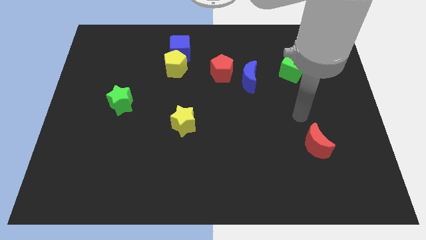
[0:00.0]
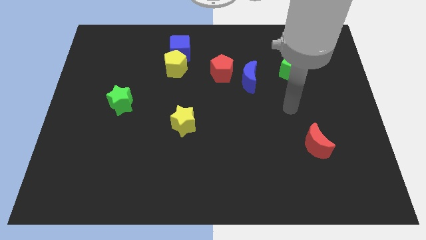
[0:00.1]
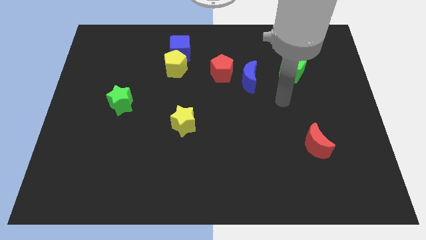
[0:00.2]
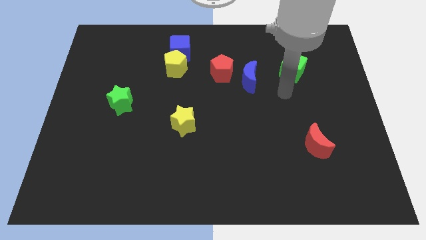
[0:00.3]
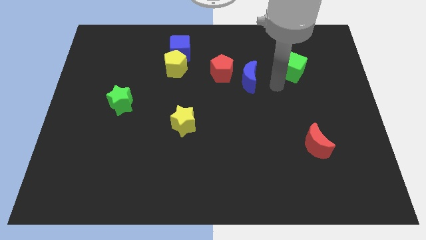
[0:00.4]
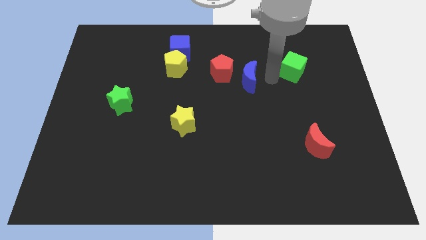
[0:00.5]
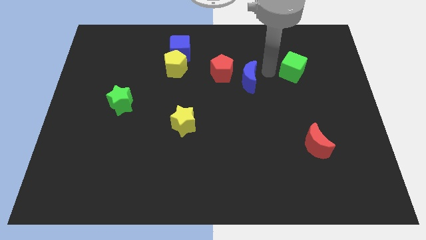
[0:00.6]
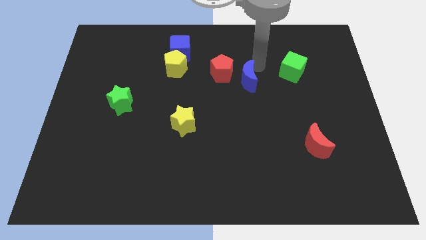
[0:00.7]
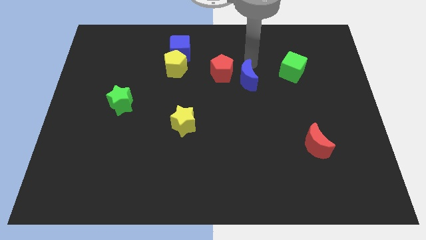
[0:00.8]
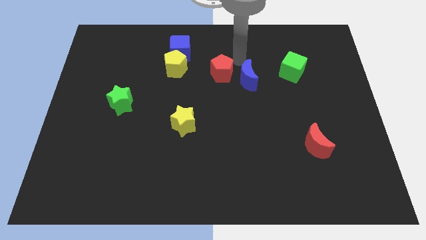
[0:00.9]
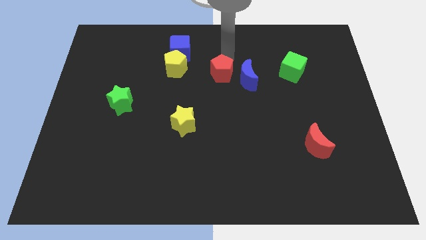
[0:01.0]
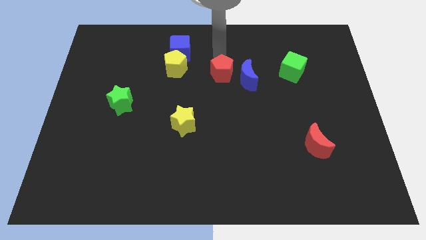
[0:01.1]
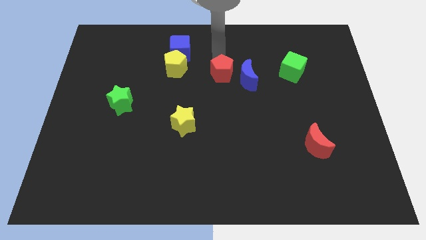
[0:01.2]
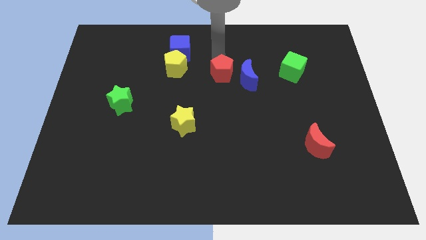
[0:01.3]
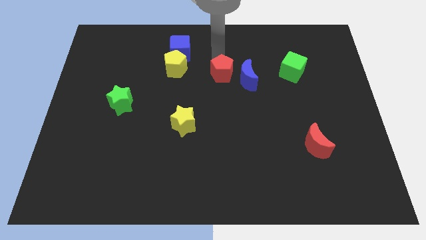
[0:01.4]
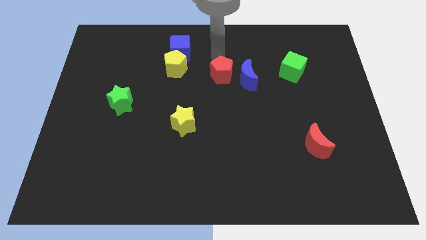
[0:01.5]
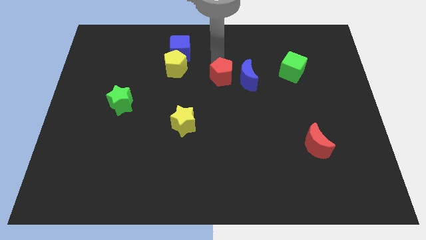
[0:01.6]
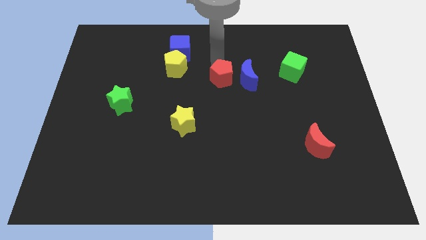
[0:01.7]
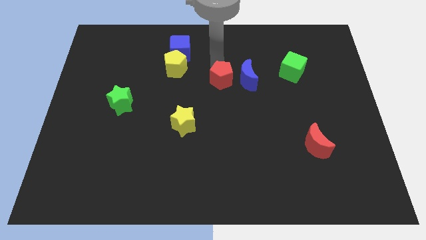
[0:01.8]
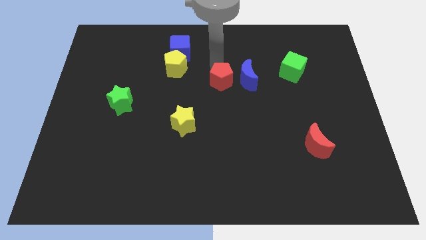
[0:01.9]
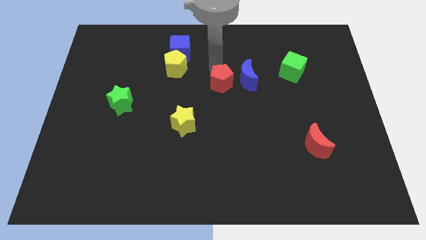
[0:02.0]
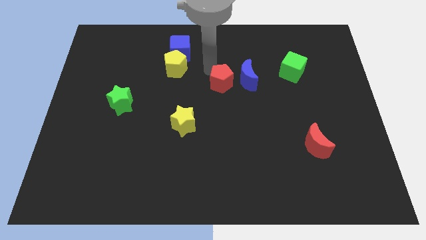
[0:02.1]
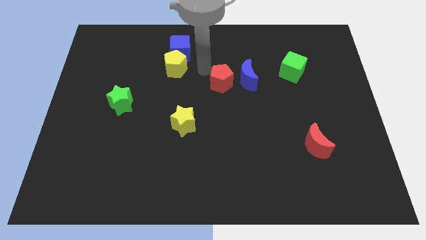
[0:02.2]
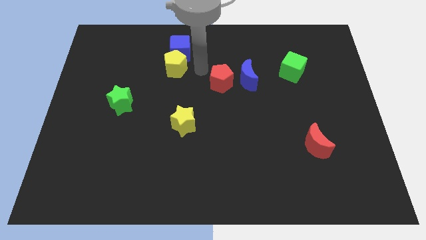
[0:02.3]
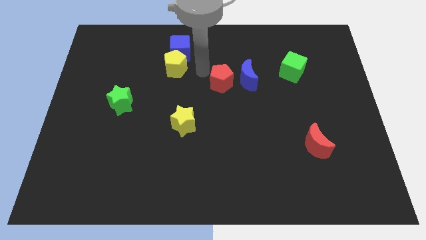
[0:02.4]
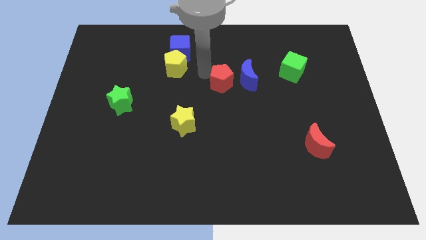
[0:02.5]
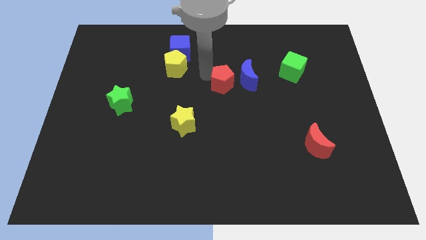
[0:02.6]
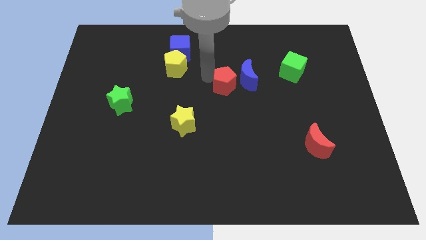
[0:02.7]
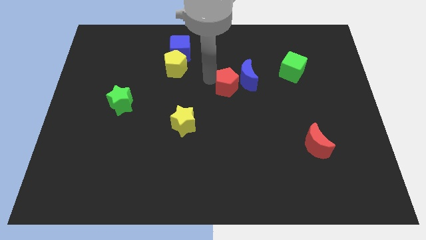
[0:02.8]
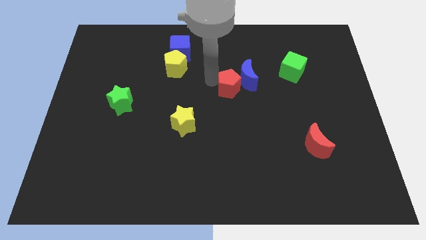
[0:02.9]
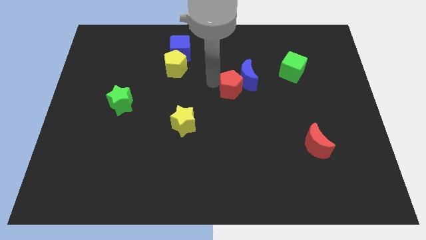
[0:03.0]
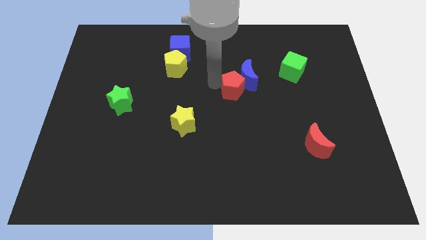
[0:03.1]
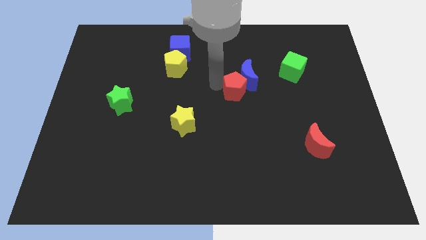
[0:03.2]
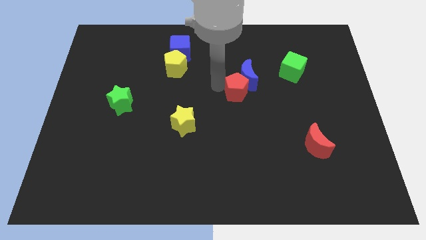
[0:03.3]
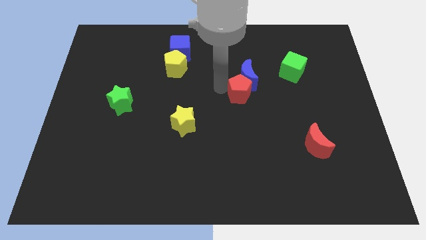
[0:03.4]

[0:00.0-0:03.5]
move the red pentagon somewhat diagonally downwards and to the right

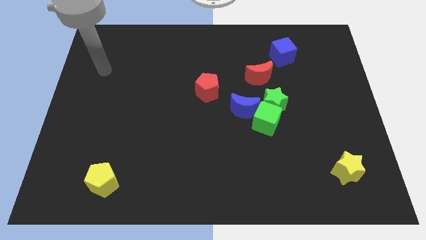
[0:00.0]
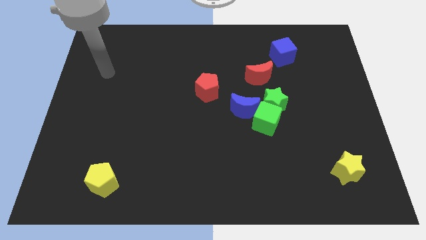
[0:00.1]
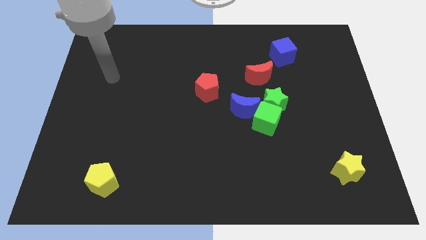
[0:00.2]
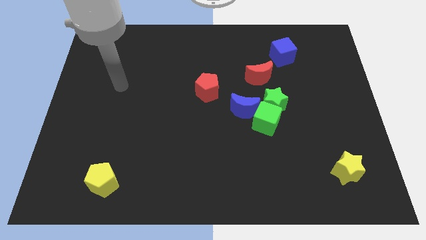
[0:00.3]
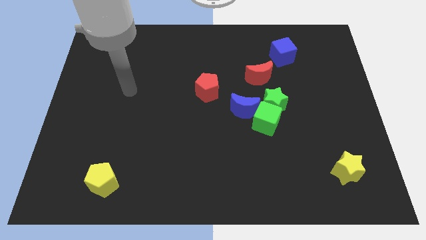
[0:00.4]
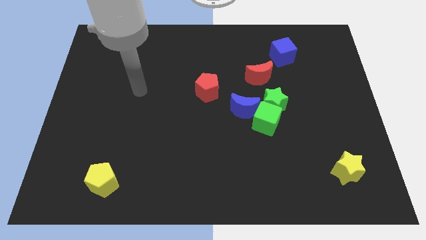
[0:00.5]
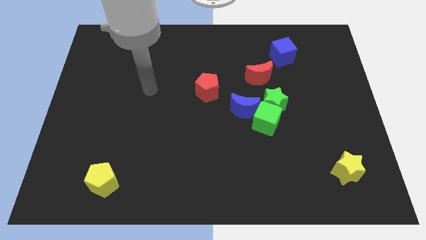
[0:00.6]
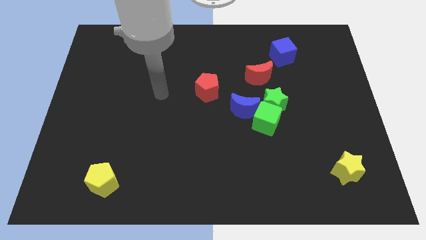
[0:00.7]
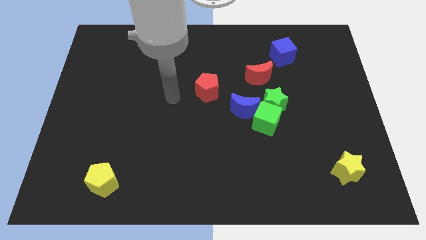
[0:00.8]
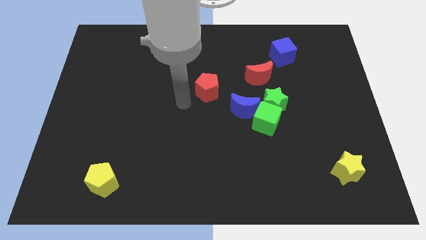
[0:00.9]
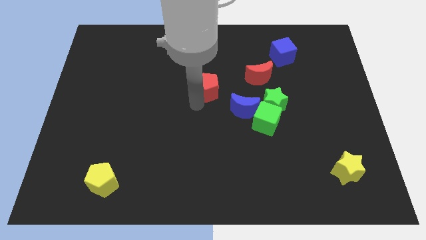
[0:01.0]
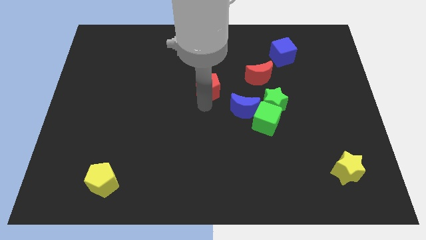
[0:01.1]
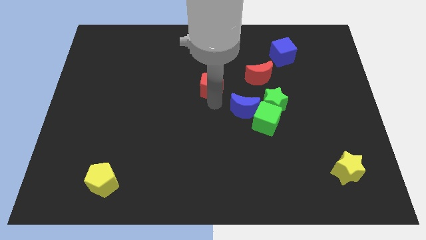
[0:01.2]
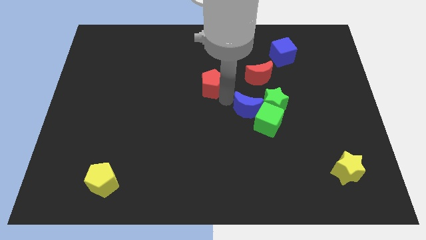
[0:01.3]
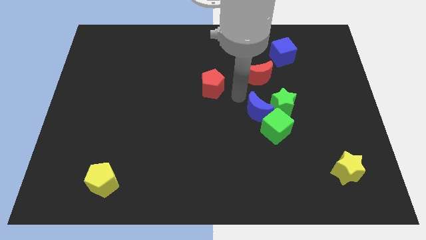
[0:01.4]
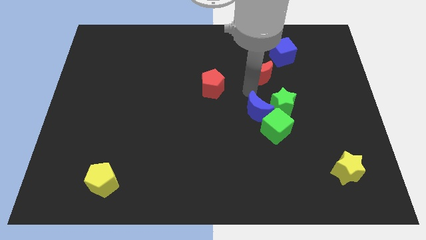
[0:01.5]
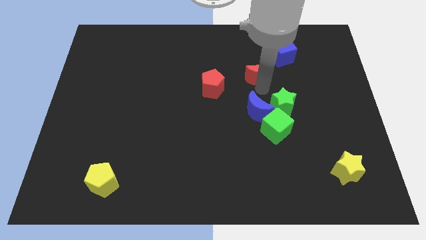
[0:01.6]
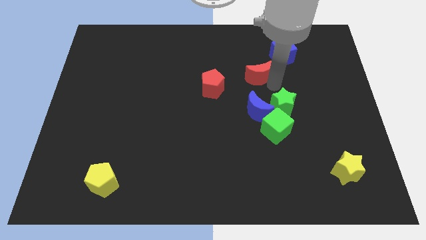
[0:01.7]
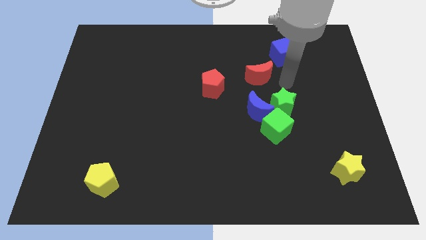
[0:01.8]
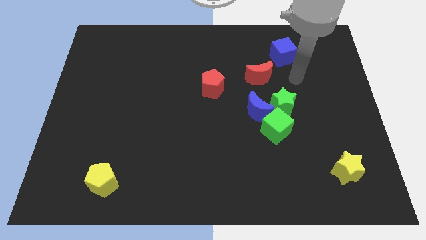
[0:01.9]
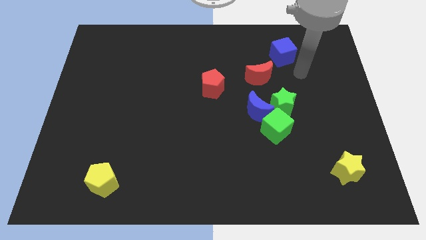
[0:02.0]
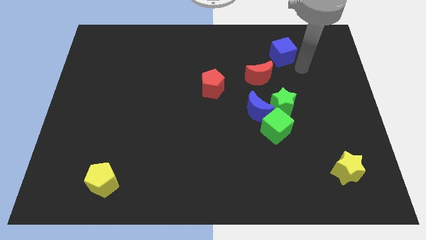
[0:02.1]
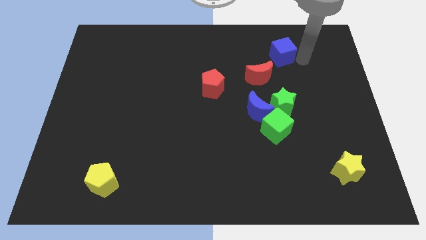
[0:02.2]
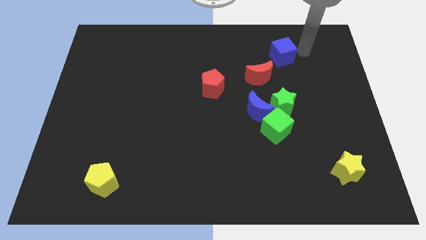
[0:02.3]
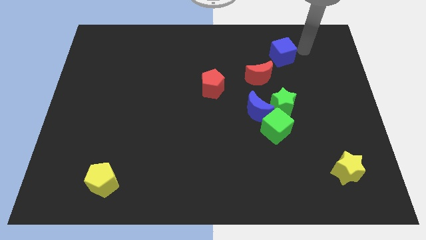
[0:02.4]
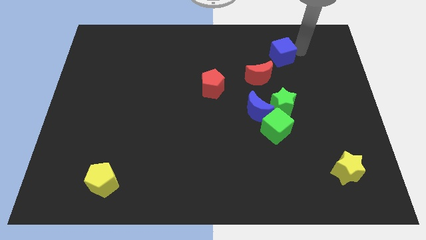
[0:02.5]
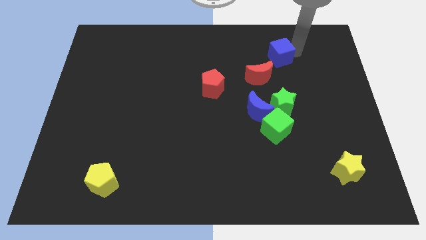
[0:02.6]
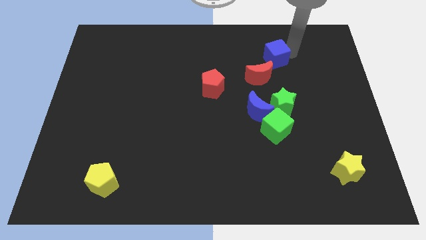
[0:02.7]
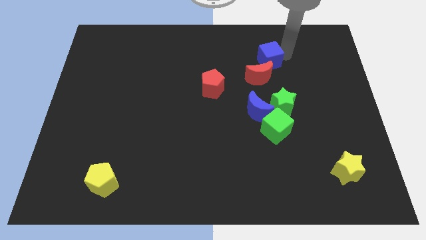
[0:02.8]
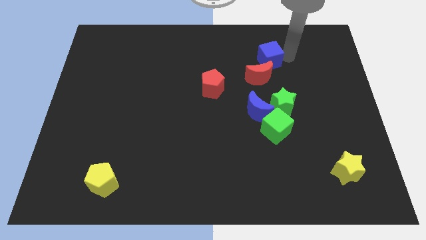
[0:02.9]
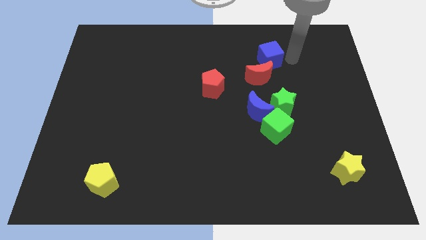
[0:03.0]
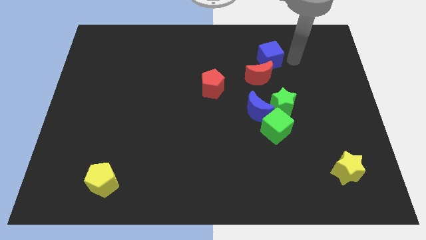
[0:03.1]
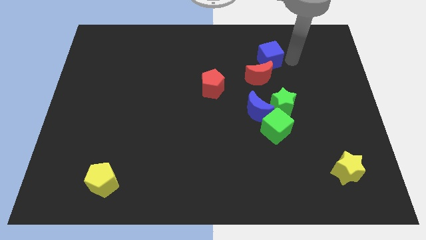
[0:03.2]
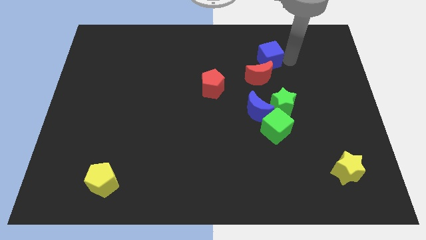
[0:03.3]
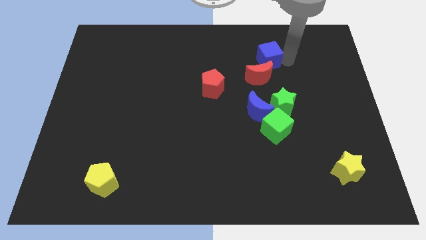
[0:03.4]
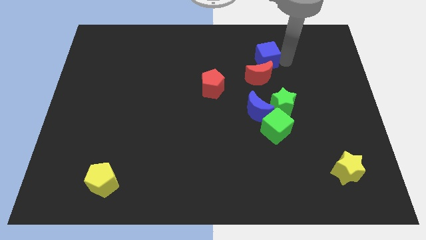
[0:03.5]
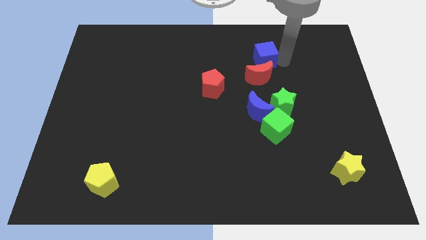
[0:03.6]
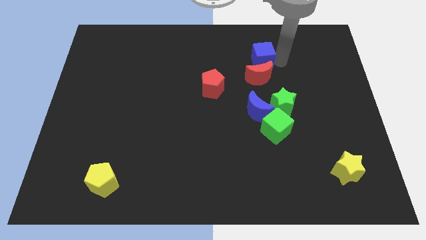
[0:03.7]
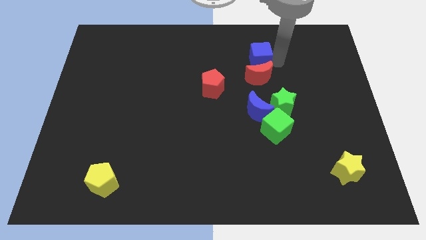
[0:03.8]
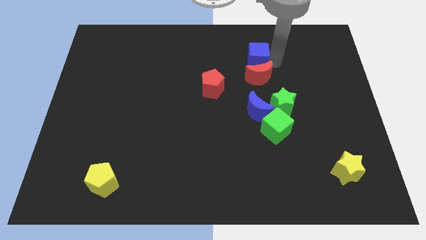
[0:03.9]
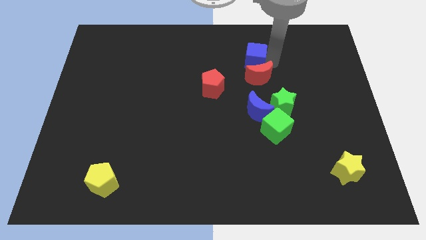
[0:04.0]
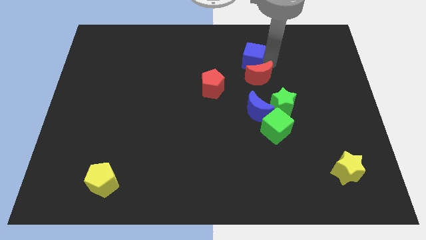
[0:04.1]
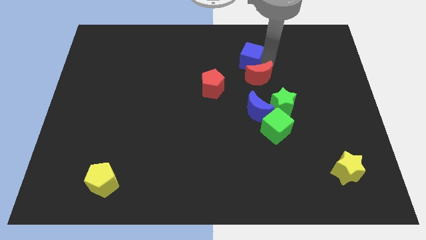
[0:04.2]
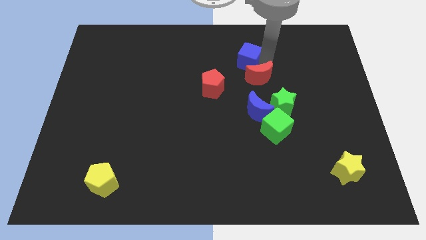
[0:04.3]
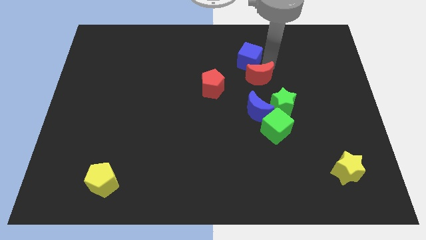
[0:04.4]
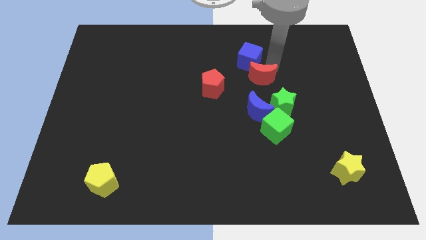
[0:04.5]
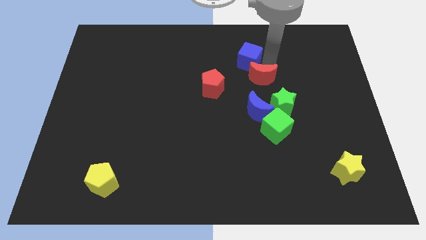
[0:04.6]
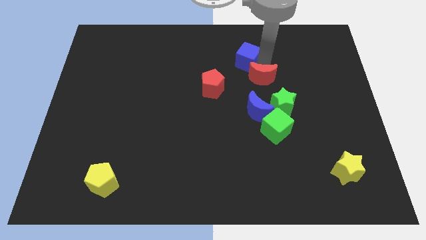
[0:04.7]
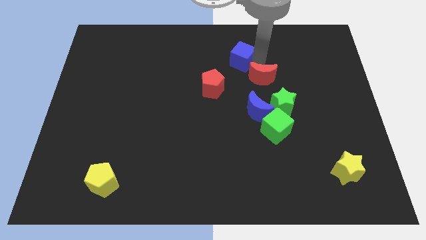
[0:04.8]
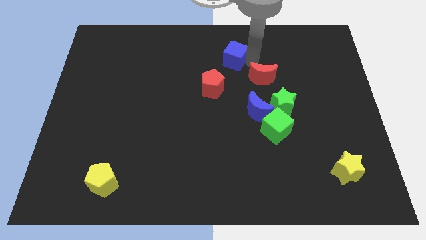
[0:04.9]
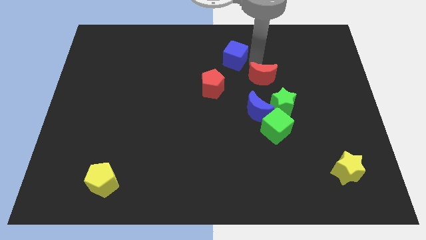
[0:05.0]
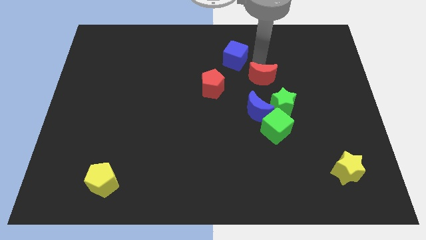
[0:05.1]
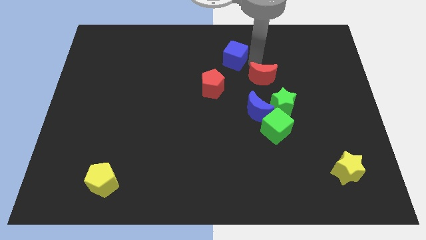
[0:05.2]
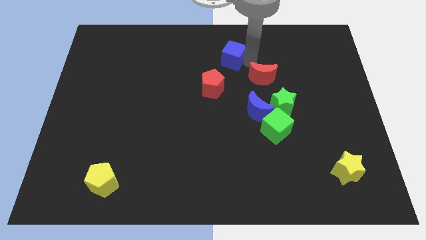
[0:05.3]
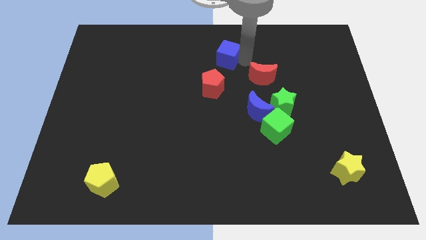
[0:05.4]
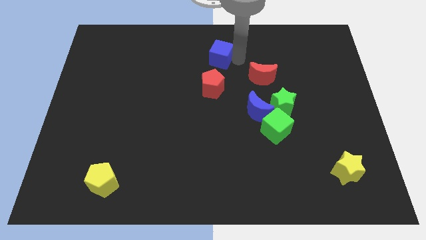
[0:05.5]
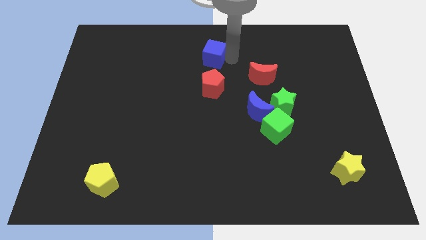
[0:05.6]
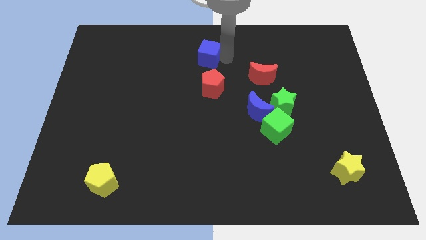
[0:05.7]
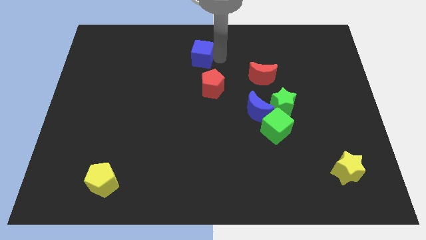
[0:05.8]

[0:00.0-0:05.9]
move the blue cube left
